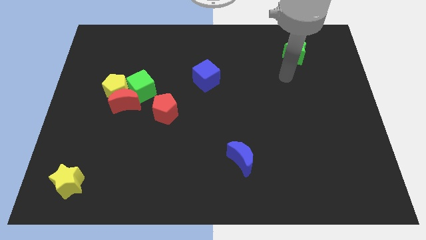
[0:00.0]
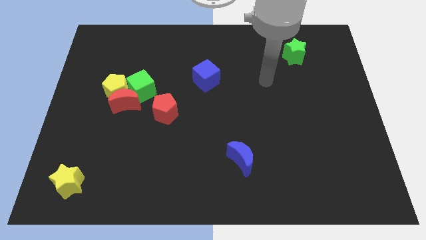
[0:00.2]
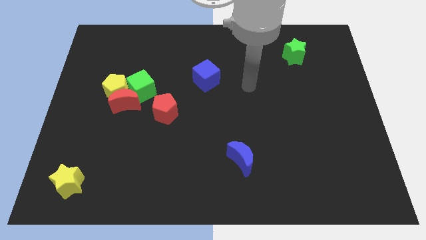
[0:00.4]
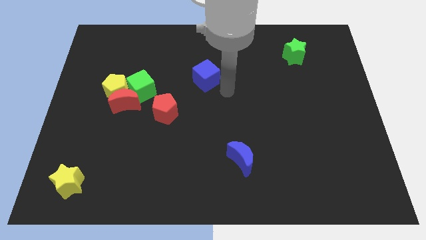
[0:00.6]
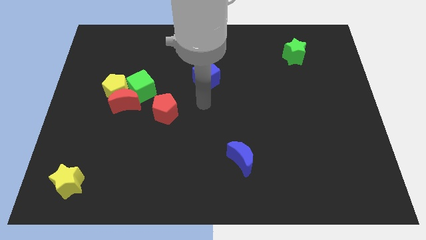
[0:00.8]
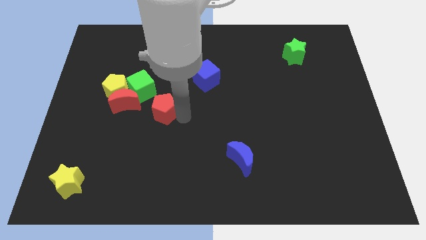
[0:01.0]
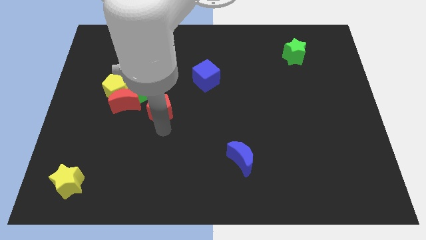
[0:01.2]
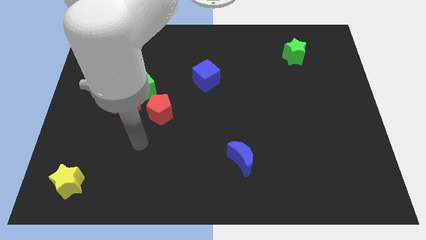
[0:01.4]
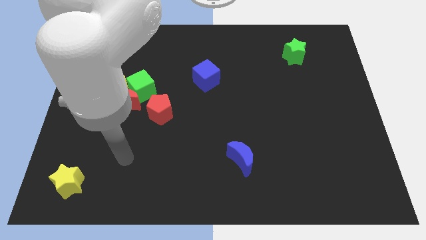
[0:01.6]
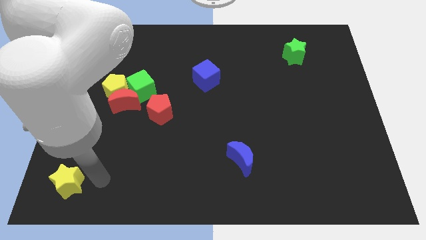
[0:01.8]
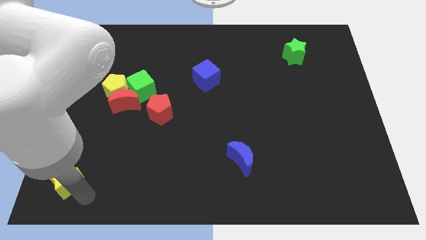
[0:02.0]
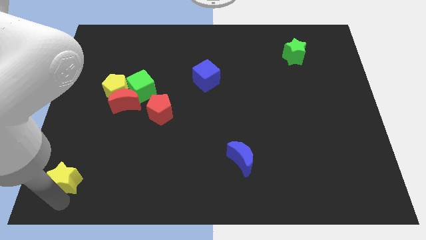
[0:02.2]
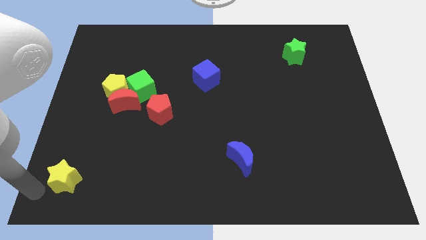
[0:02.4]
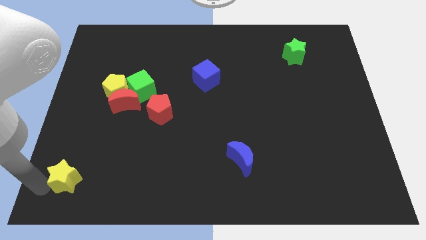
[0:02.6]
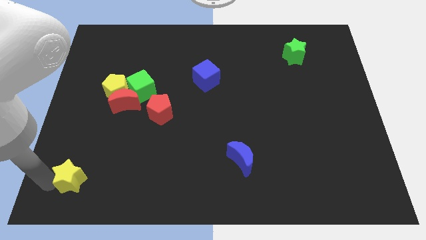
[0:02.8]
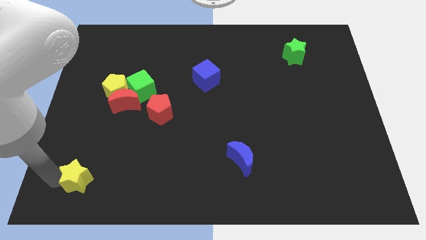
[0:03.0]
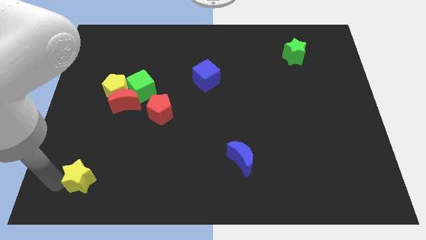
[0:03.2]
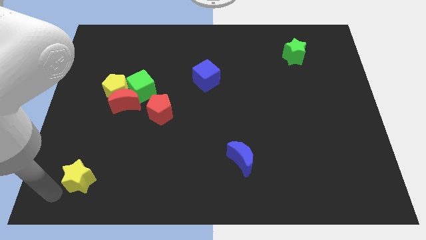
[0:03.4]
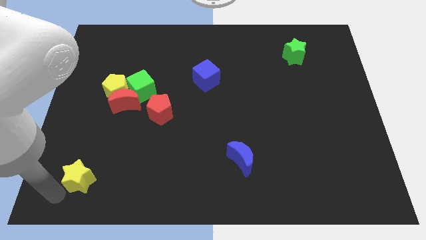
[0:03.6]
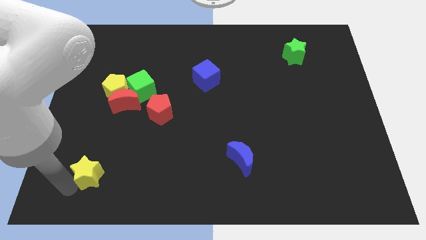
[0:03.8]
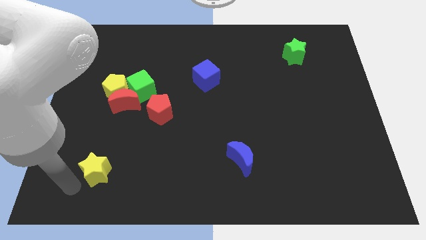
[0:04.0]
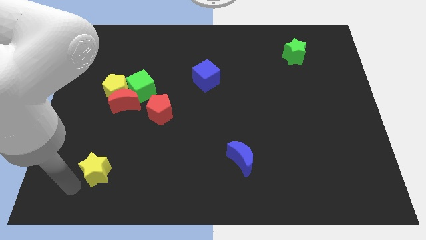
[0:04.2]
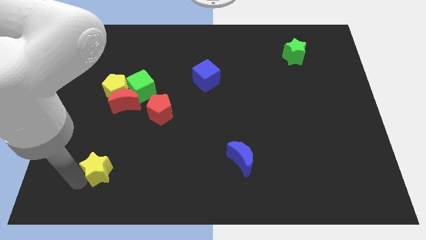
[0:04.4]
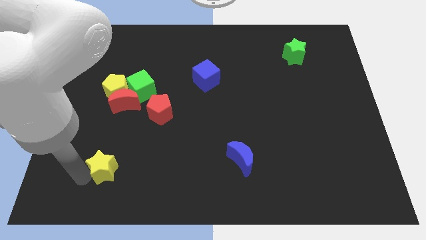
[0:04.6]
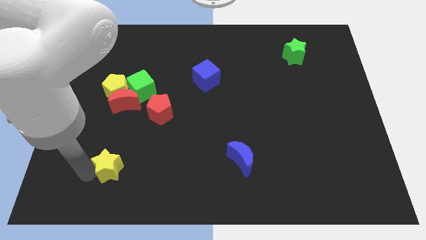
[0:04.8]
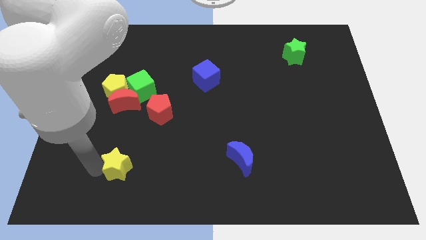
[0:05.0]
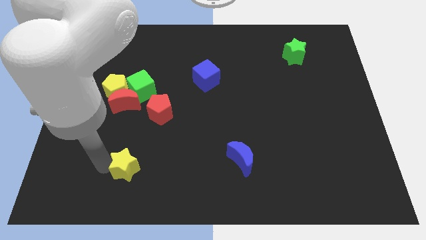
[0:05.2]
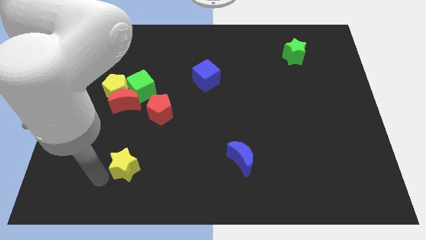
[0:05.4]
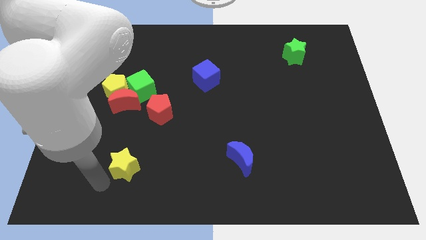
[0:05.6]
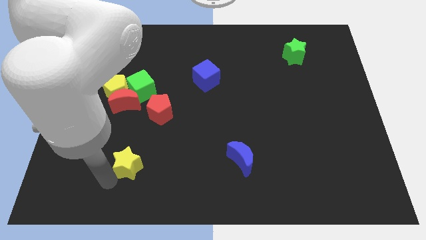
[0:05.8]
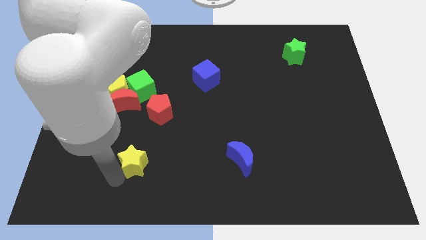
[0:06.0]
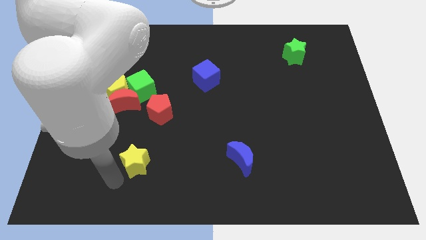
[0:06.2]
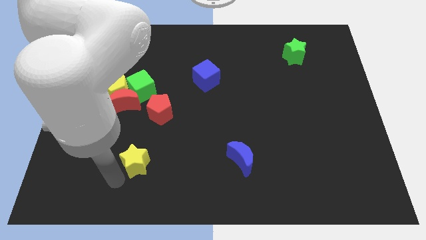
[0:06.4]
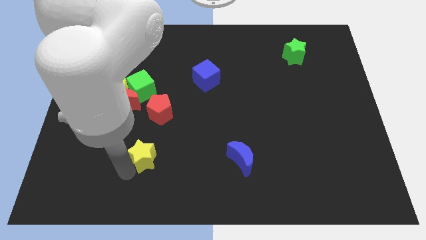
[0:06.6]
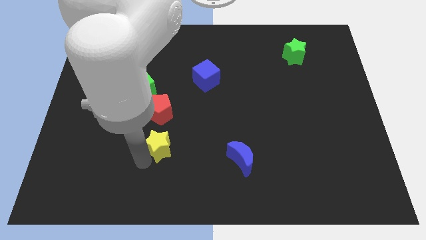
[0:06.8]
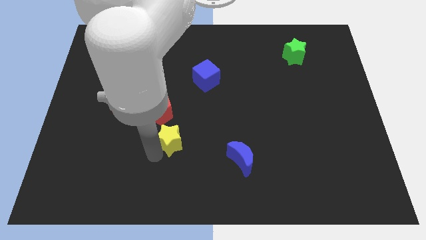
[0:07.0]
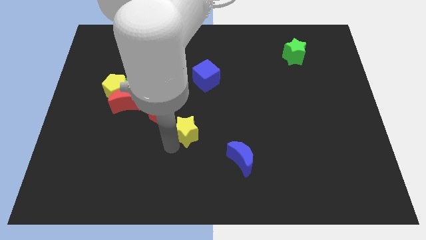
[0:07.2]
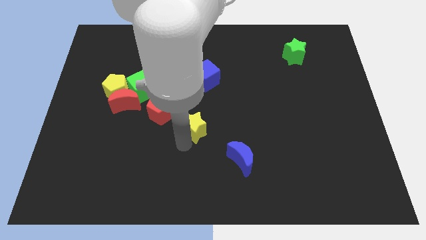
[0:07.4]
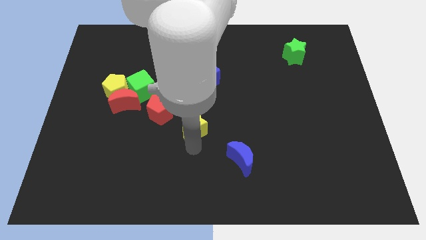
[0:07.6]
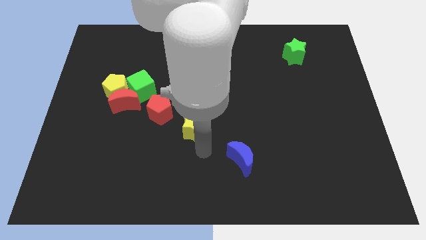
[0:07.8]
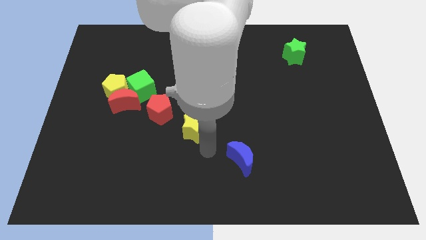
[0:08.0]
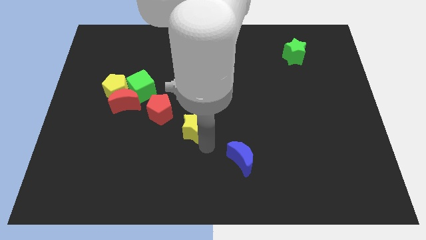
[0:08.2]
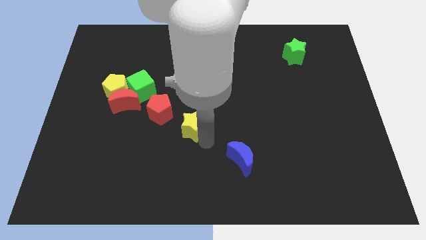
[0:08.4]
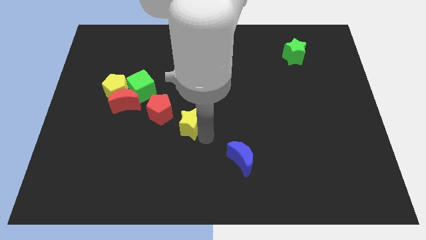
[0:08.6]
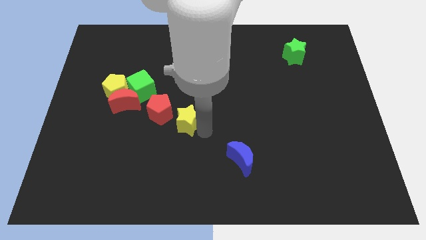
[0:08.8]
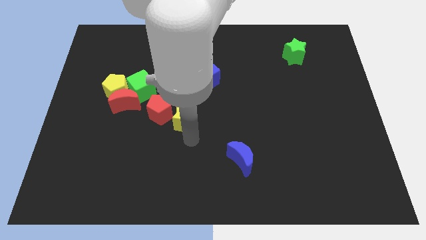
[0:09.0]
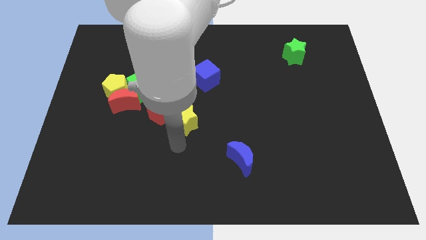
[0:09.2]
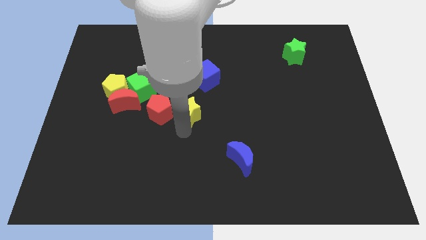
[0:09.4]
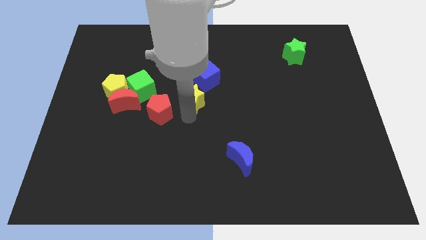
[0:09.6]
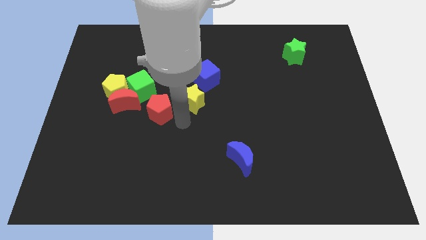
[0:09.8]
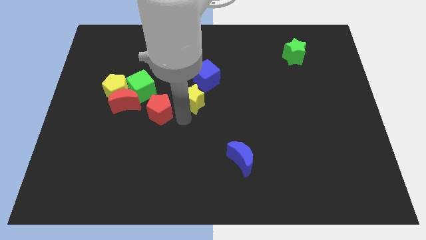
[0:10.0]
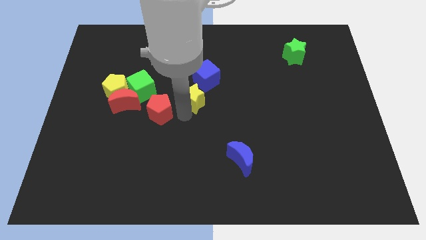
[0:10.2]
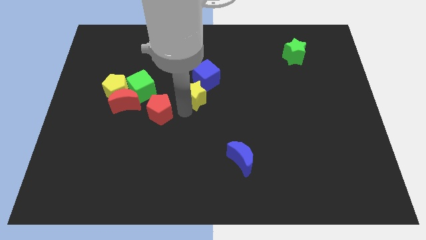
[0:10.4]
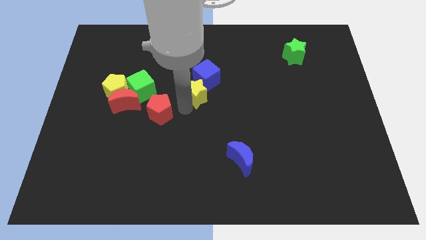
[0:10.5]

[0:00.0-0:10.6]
push the yellow star to the blue cube

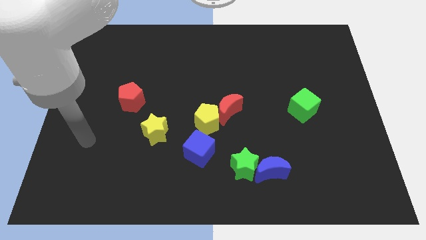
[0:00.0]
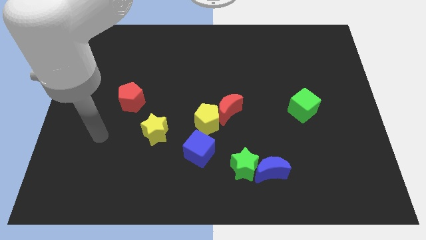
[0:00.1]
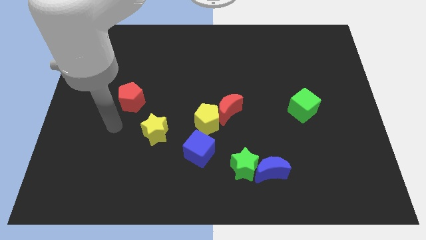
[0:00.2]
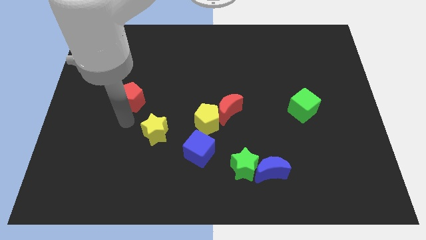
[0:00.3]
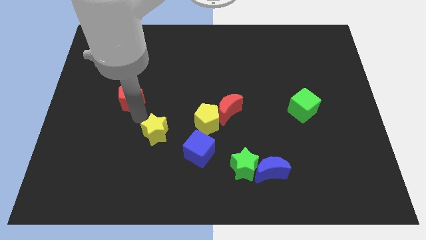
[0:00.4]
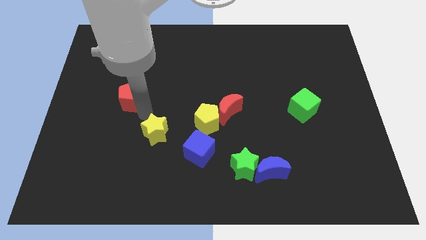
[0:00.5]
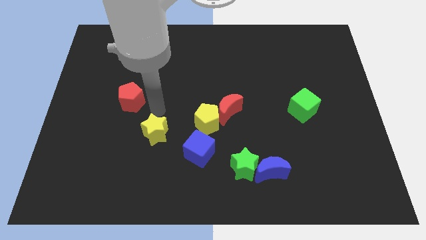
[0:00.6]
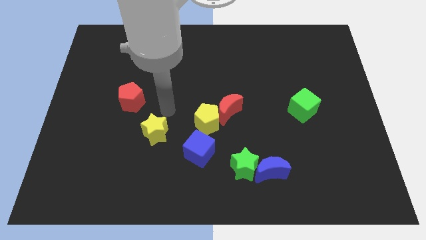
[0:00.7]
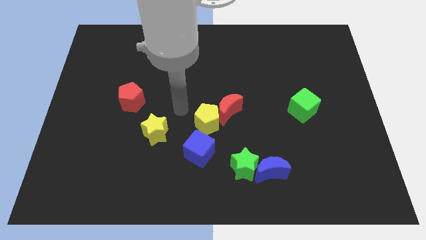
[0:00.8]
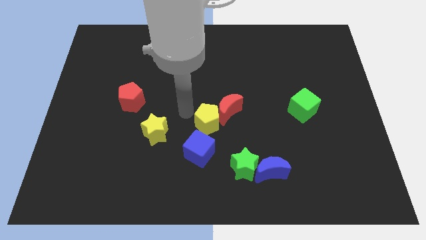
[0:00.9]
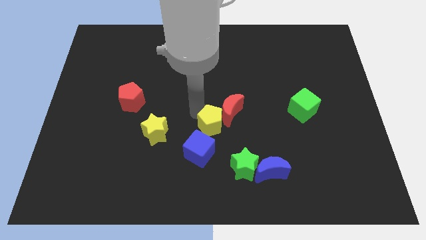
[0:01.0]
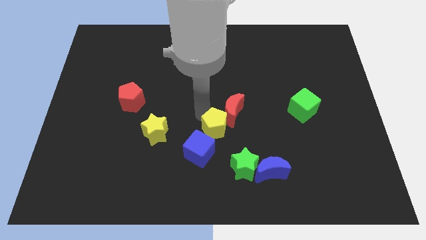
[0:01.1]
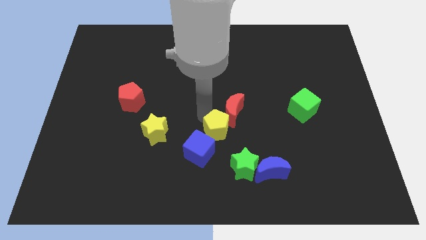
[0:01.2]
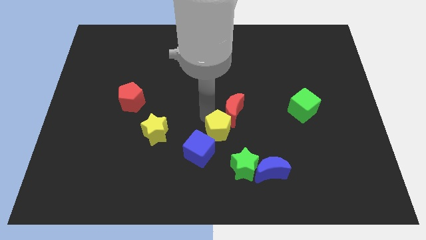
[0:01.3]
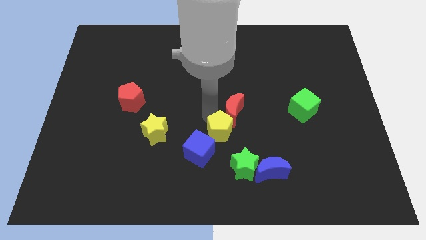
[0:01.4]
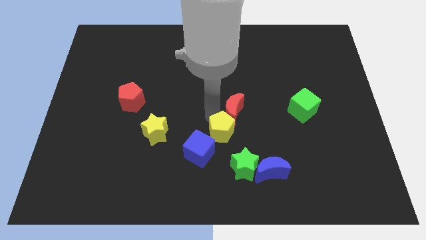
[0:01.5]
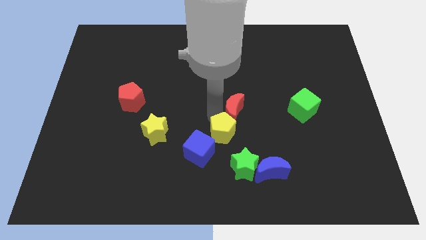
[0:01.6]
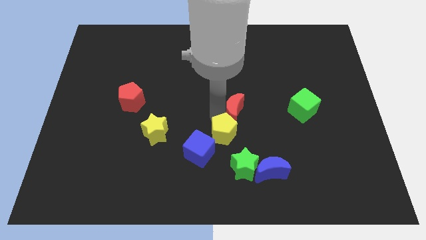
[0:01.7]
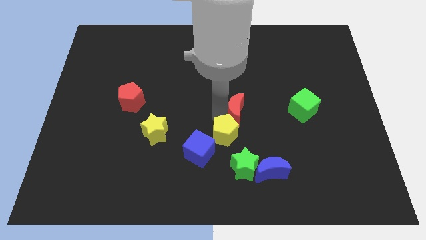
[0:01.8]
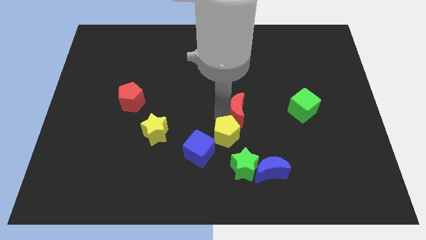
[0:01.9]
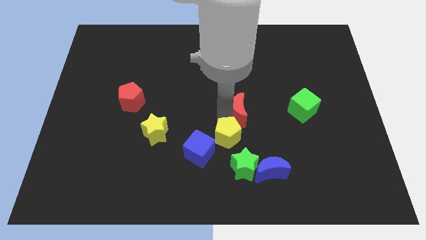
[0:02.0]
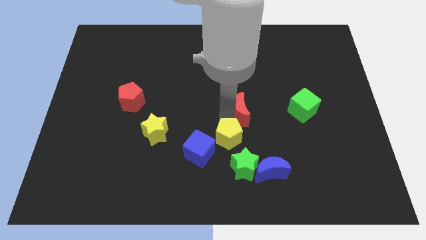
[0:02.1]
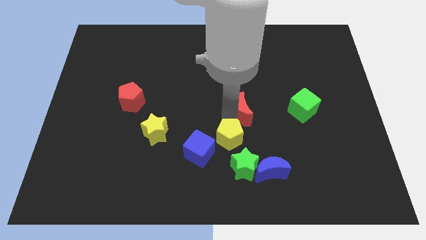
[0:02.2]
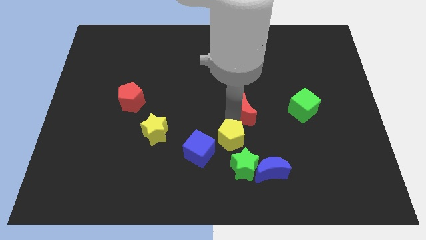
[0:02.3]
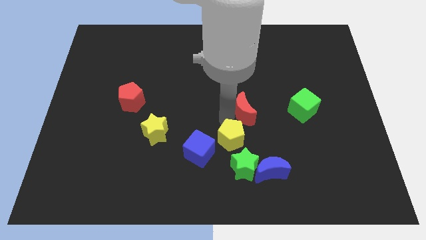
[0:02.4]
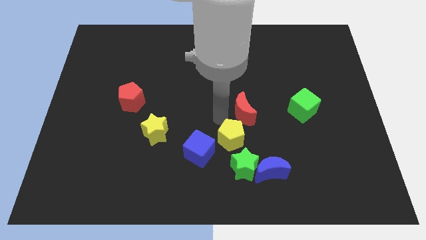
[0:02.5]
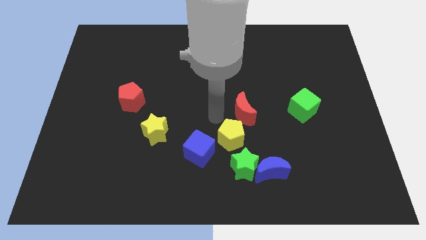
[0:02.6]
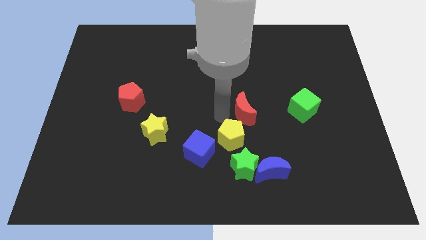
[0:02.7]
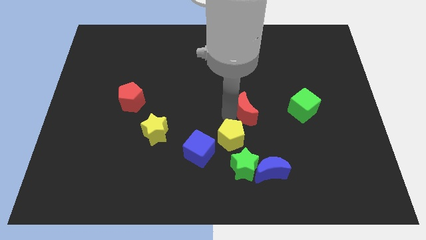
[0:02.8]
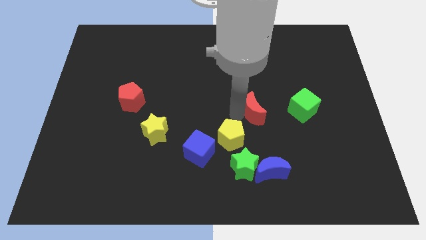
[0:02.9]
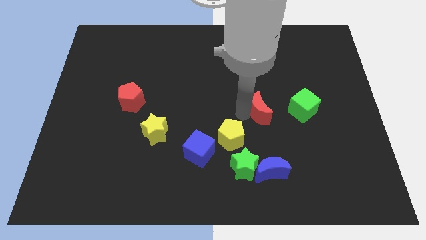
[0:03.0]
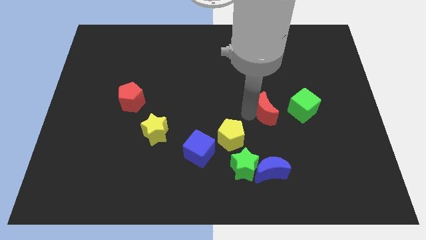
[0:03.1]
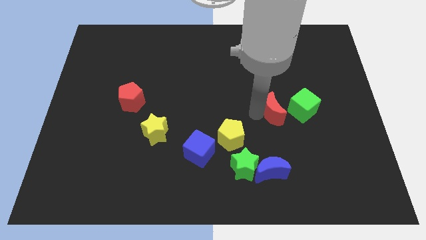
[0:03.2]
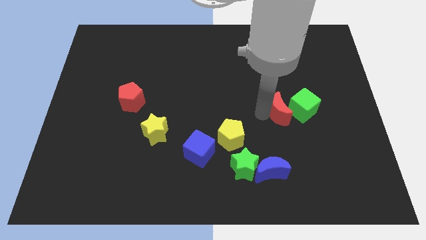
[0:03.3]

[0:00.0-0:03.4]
slide the red moon close to the green cube
